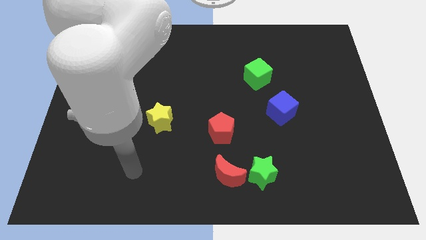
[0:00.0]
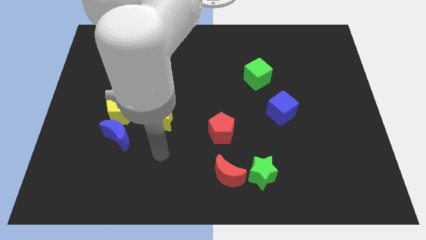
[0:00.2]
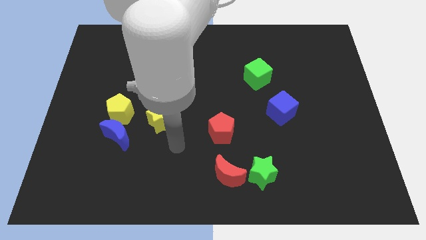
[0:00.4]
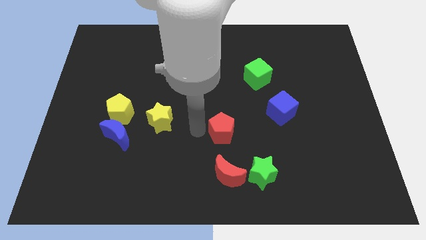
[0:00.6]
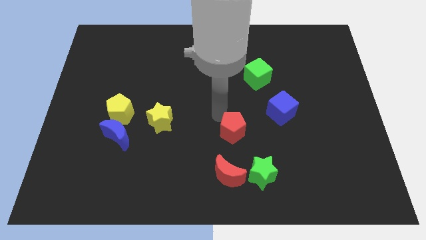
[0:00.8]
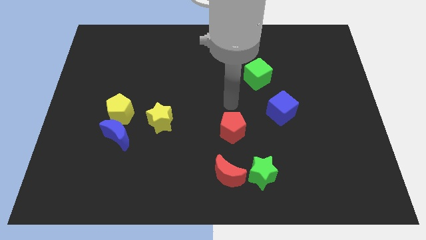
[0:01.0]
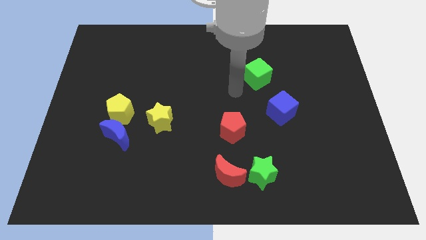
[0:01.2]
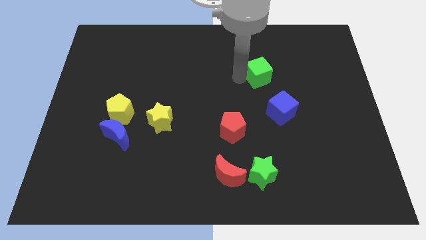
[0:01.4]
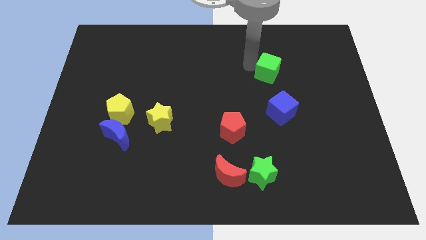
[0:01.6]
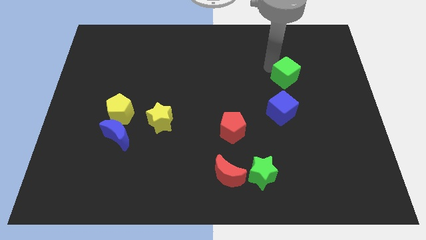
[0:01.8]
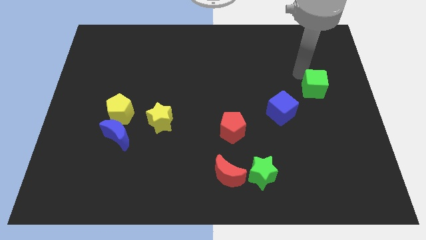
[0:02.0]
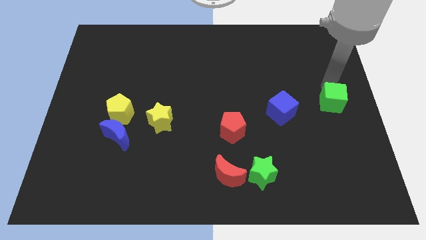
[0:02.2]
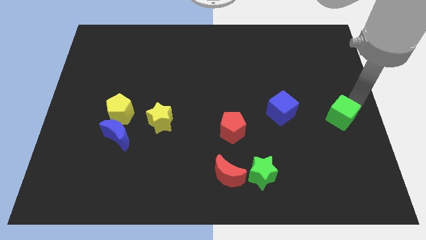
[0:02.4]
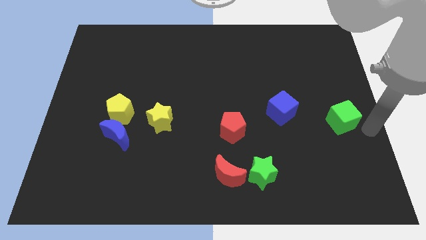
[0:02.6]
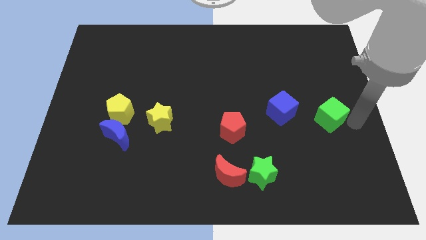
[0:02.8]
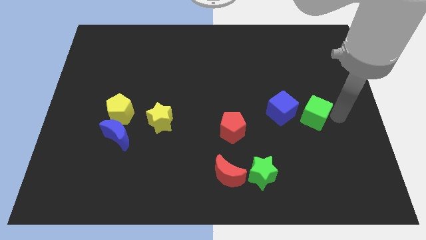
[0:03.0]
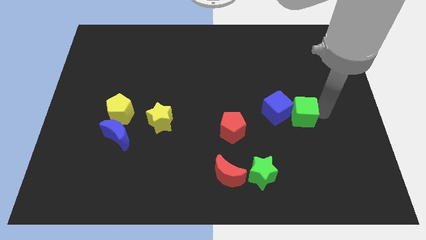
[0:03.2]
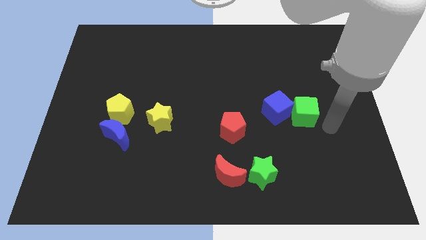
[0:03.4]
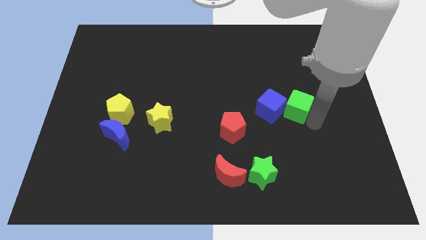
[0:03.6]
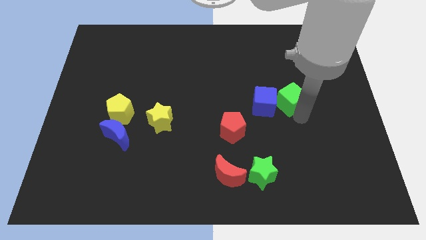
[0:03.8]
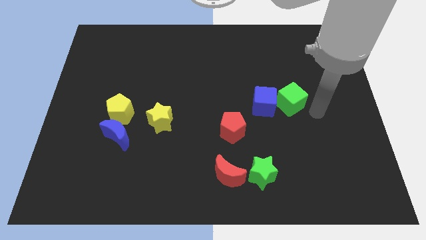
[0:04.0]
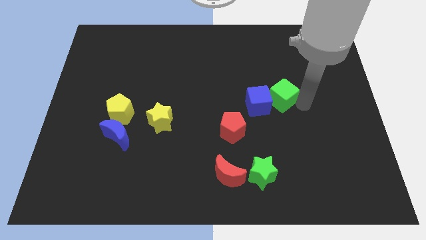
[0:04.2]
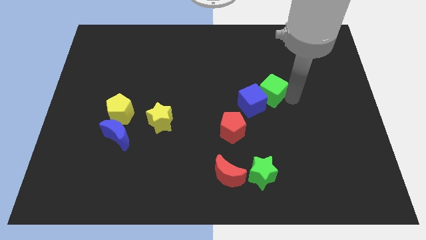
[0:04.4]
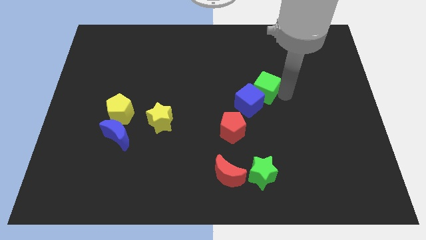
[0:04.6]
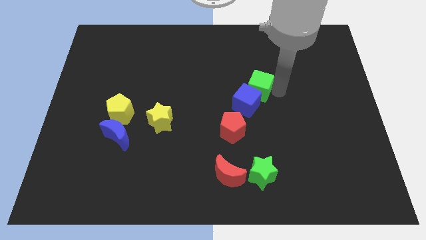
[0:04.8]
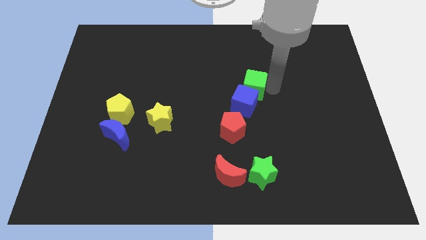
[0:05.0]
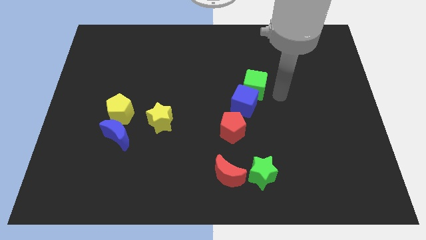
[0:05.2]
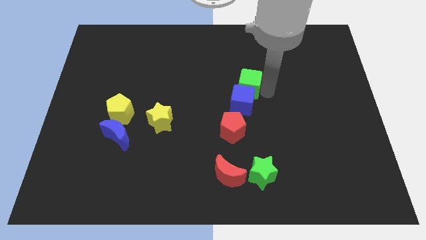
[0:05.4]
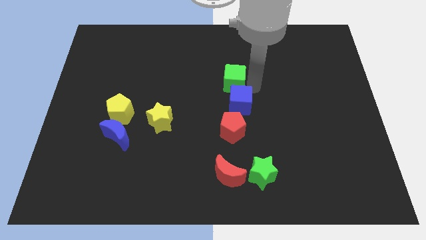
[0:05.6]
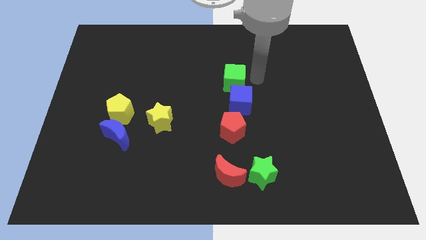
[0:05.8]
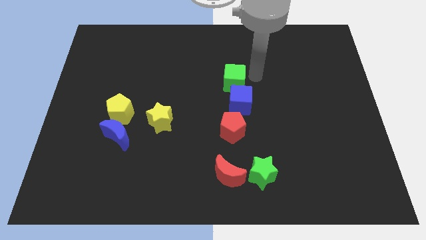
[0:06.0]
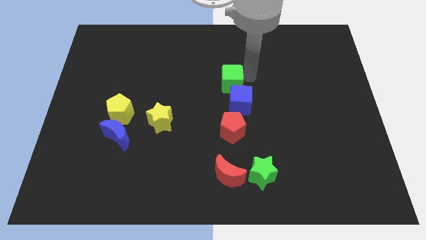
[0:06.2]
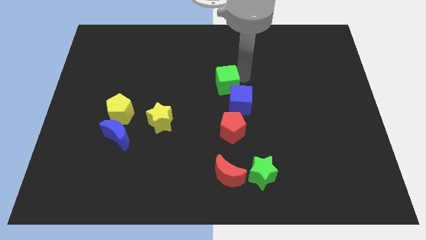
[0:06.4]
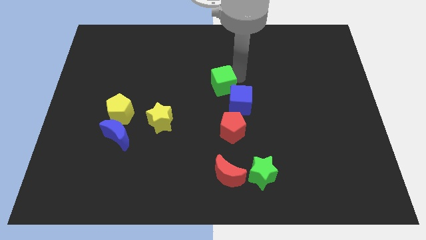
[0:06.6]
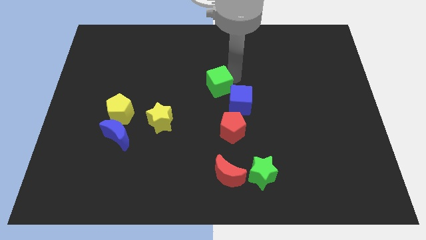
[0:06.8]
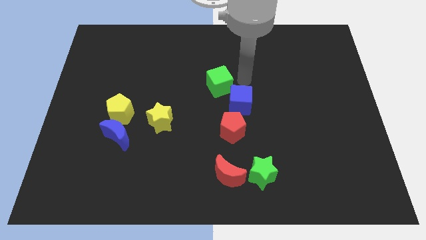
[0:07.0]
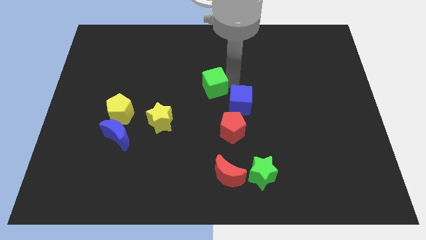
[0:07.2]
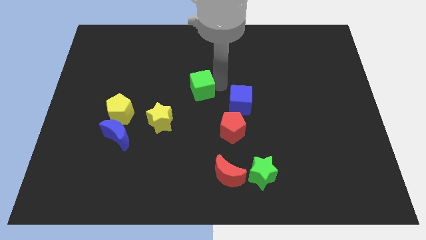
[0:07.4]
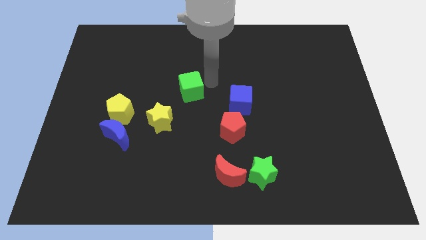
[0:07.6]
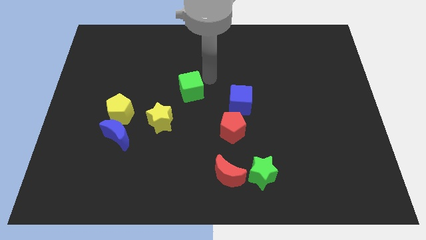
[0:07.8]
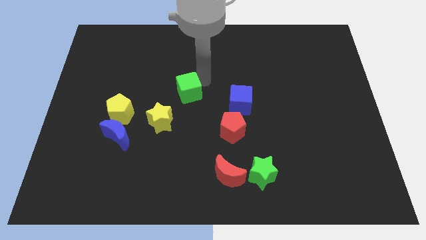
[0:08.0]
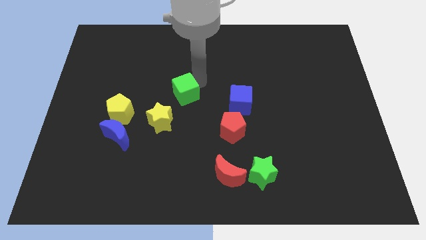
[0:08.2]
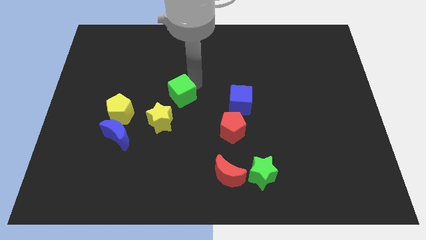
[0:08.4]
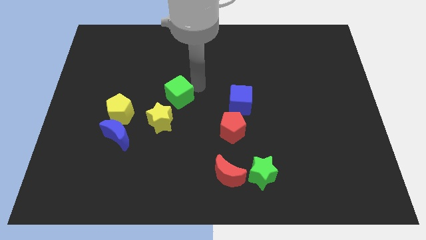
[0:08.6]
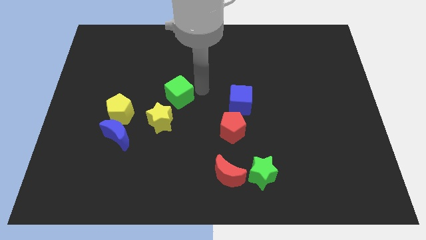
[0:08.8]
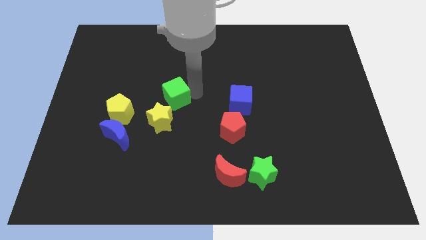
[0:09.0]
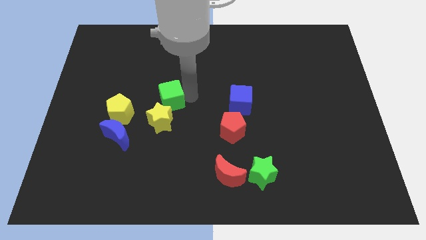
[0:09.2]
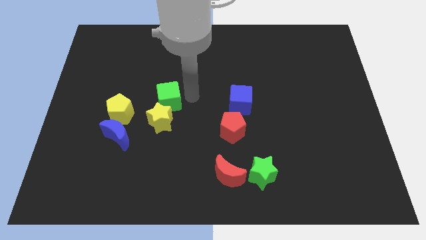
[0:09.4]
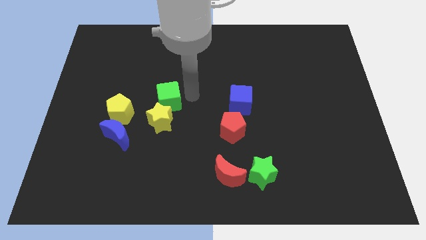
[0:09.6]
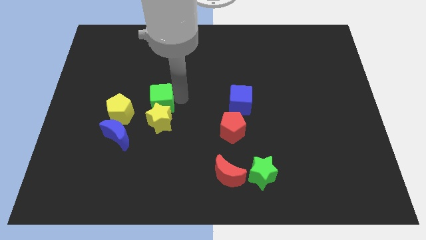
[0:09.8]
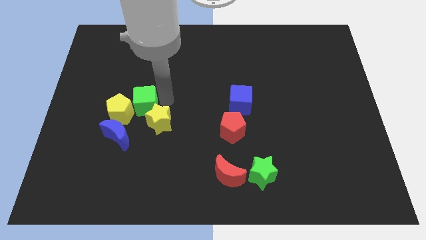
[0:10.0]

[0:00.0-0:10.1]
slide the green cube next to the yellow pentagon
